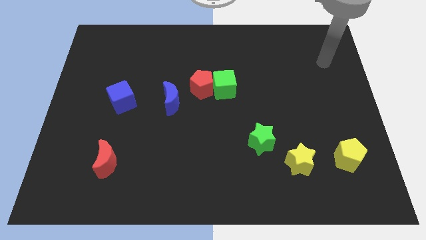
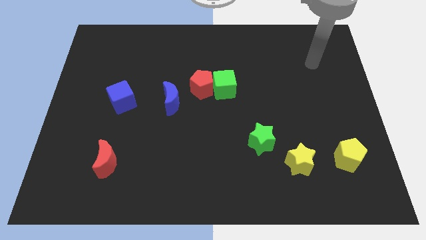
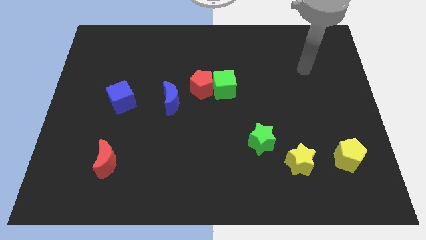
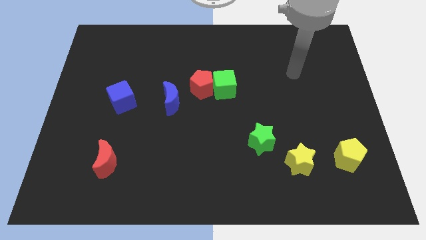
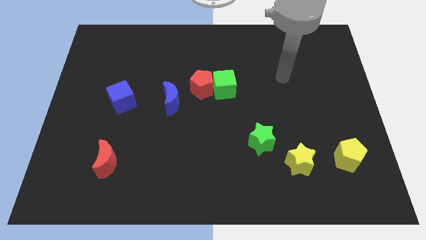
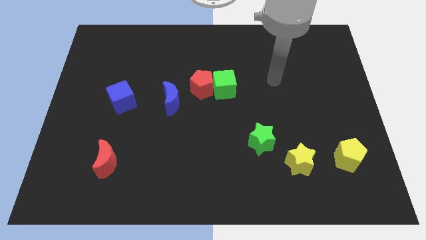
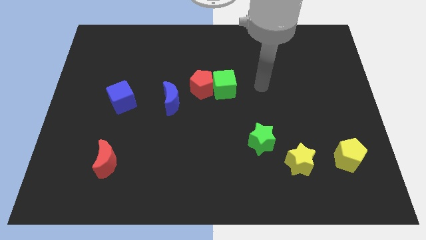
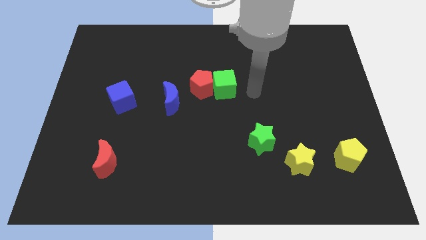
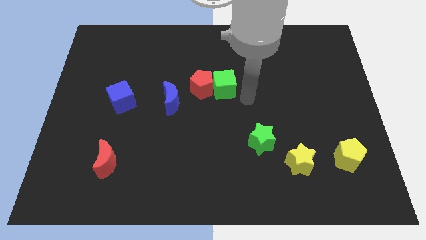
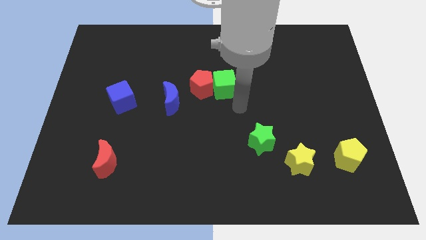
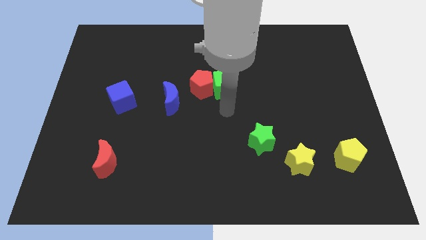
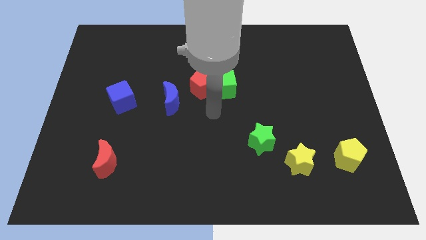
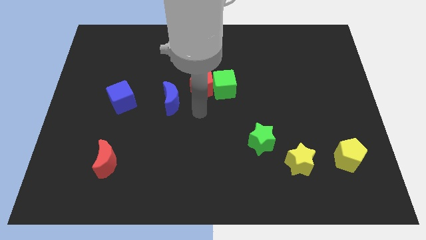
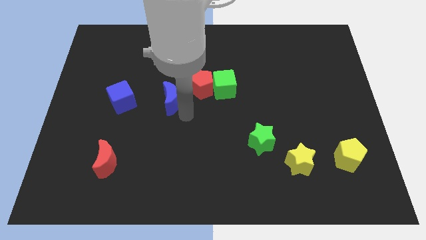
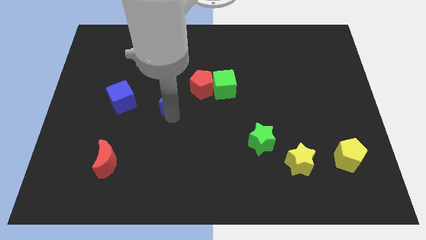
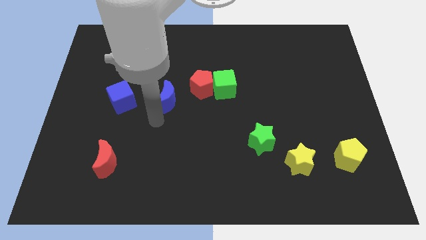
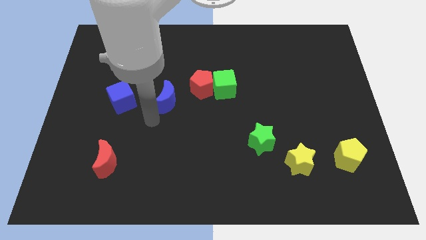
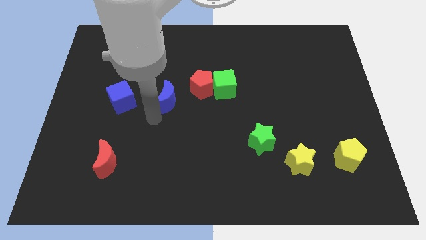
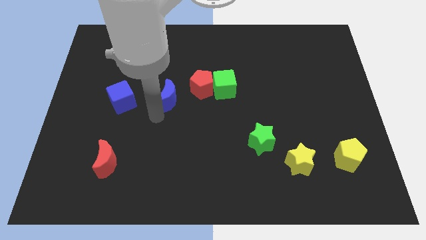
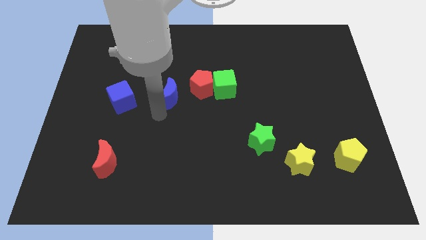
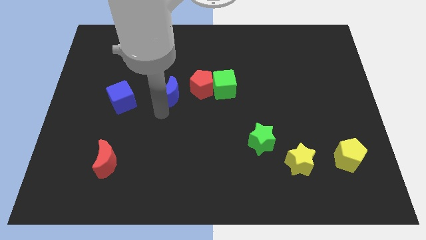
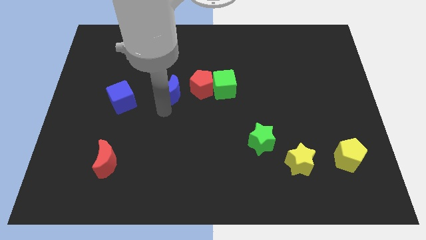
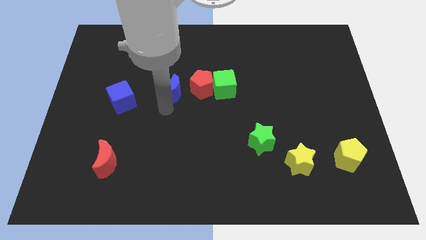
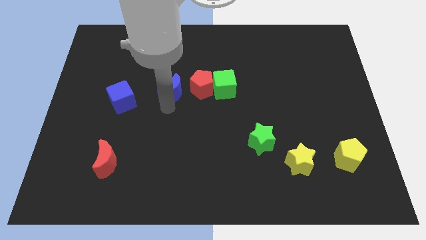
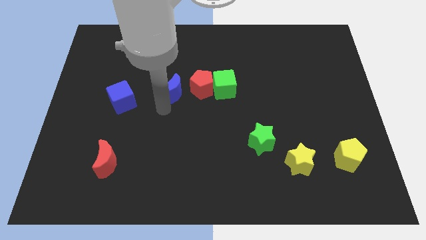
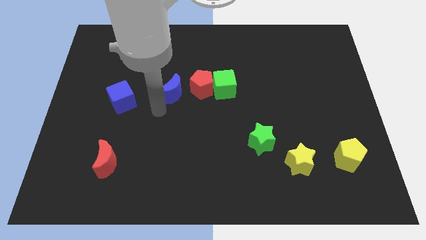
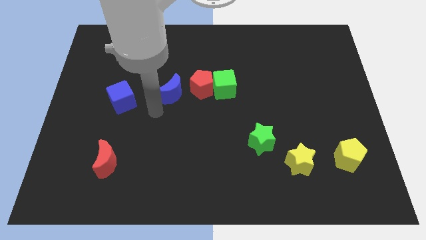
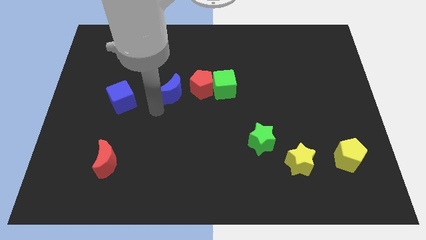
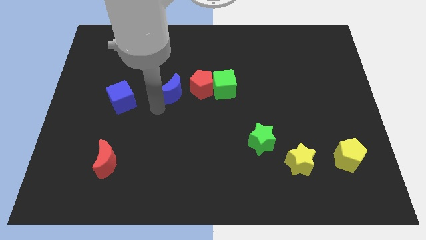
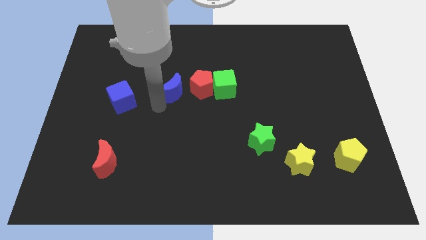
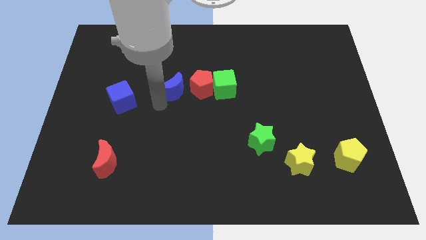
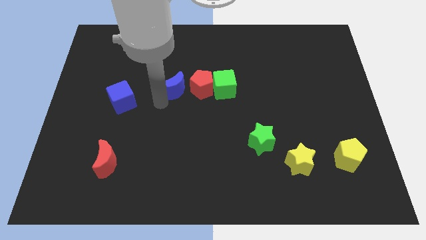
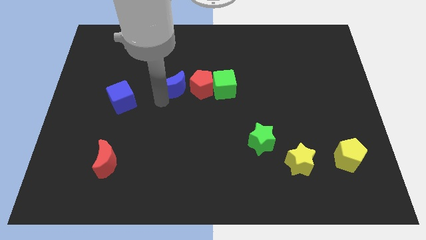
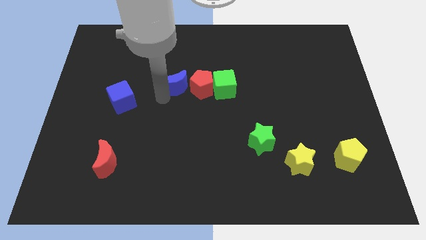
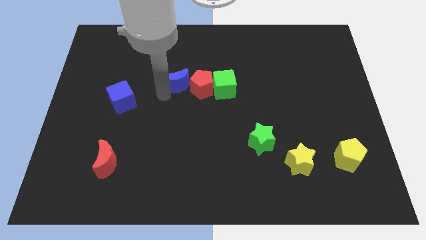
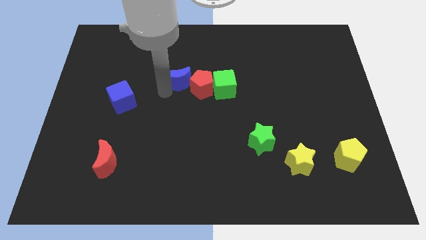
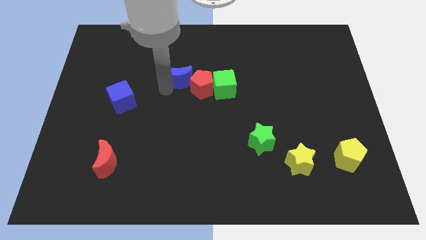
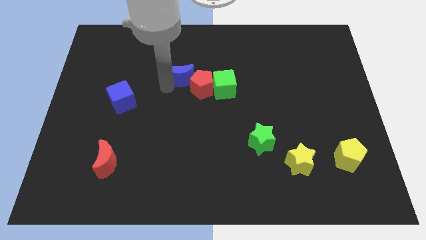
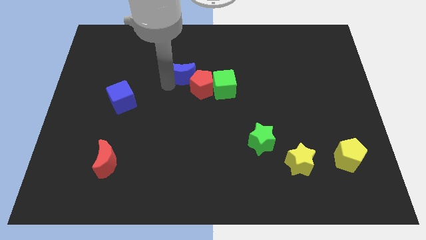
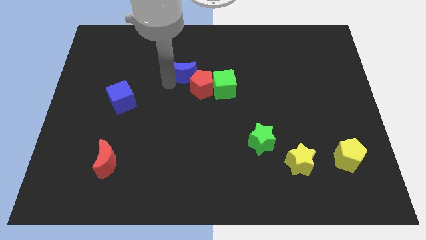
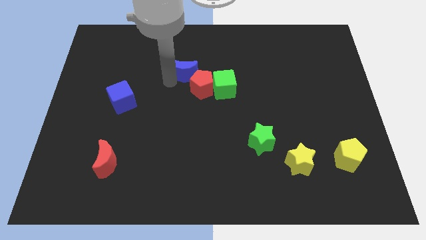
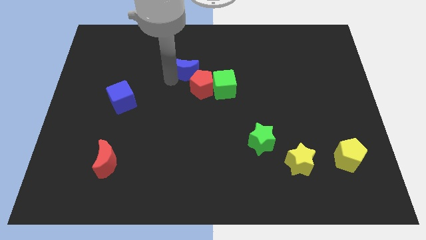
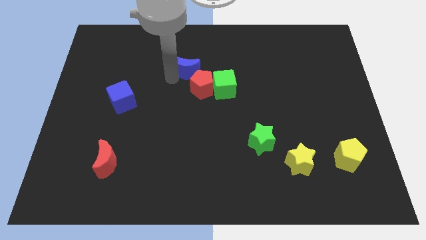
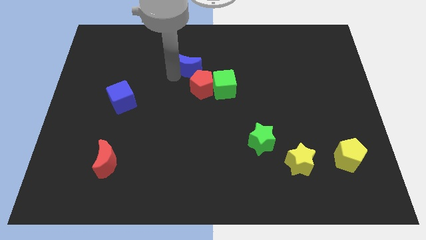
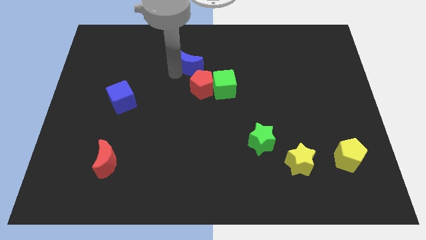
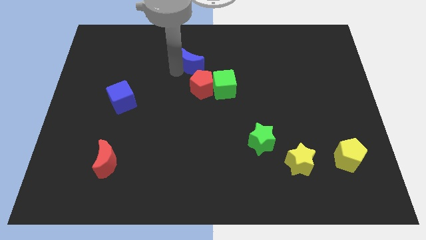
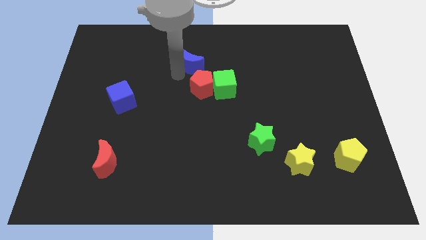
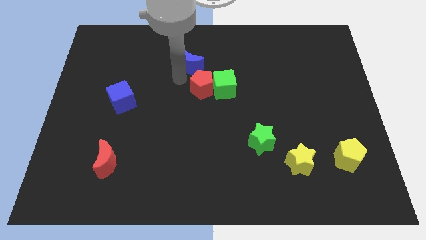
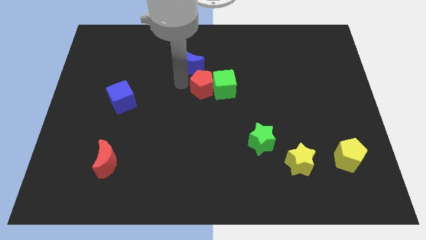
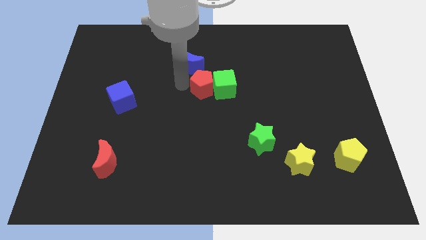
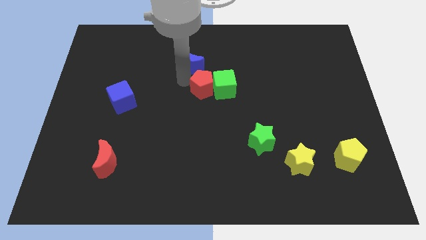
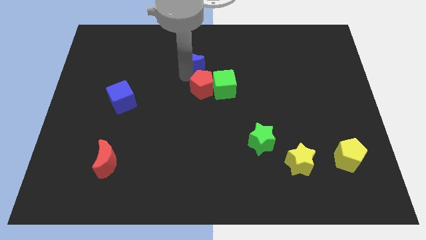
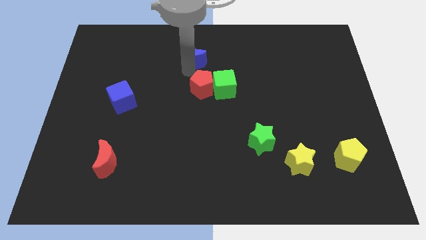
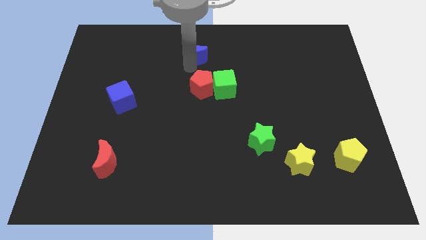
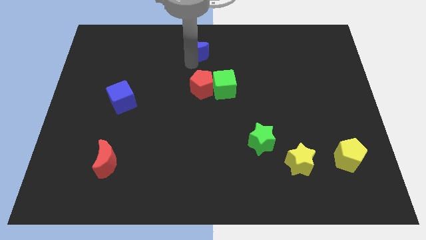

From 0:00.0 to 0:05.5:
move the blue moon to the top

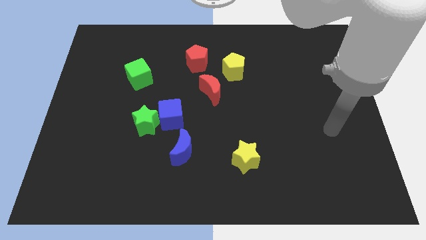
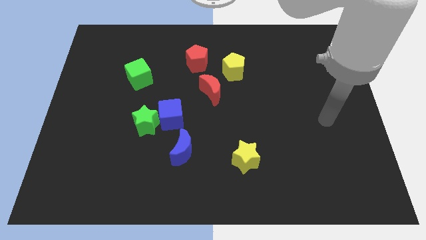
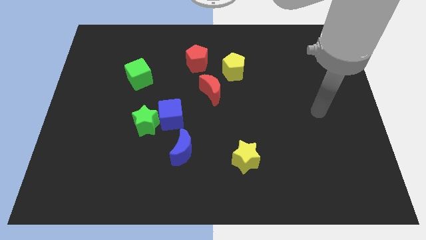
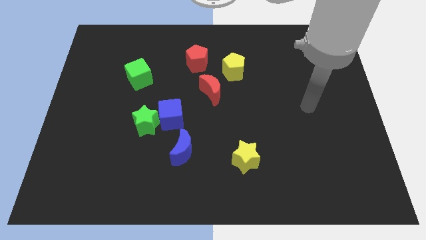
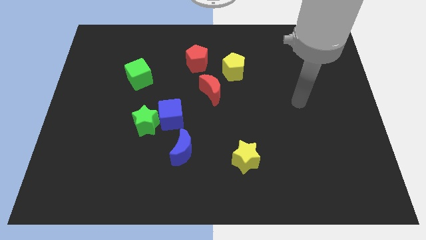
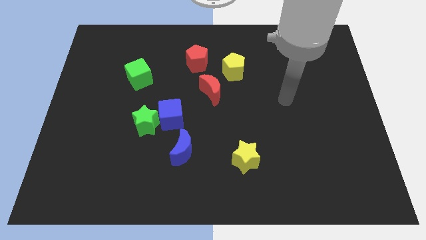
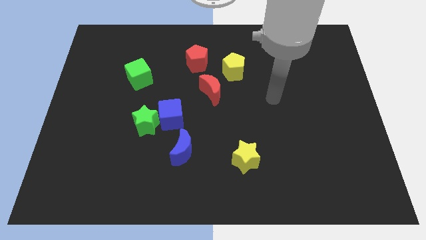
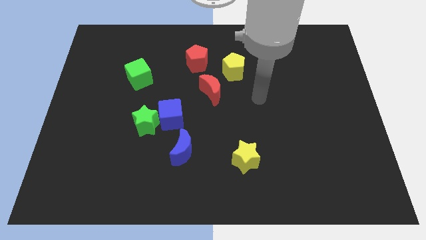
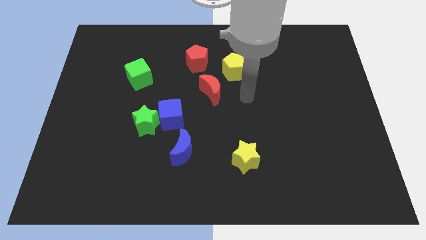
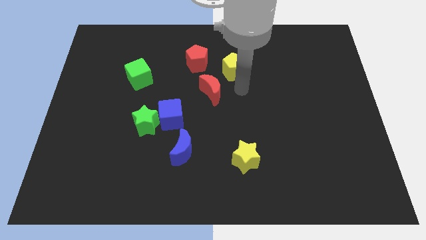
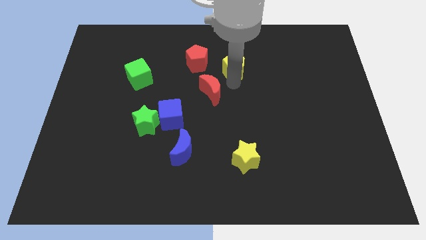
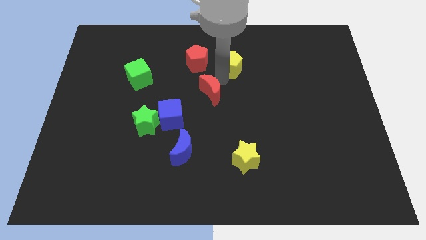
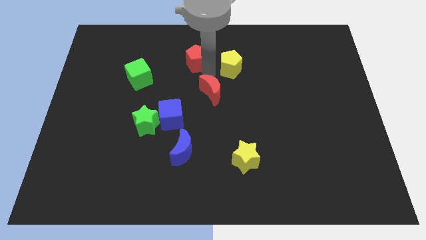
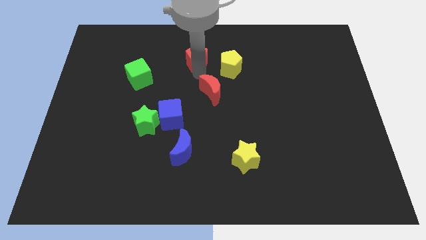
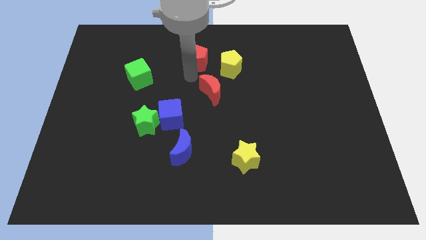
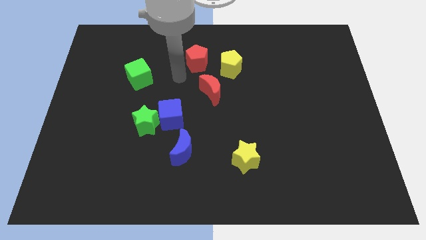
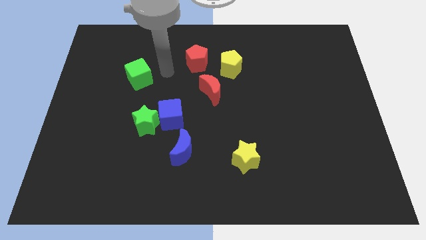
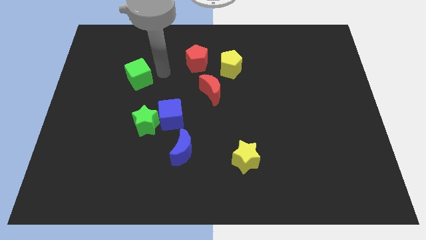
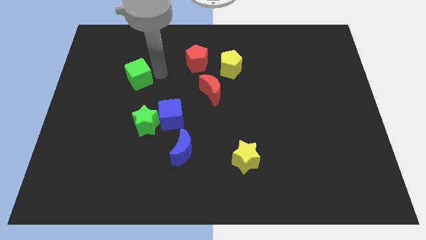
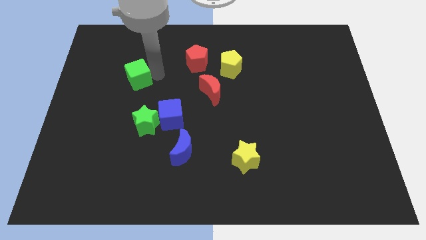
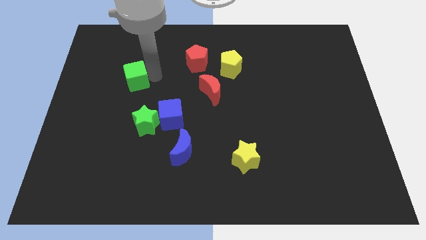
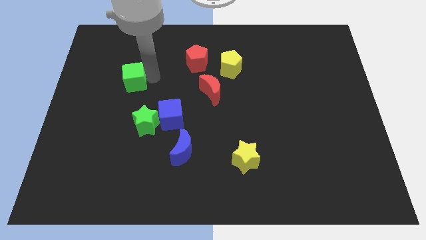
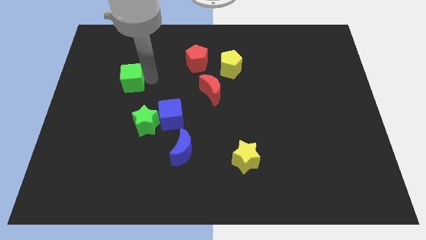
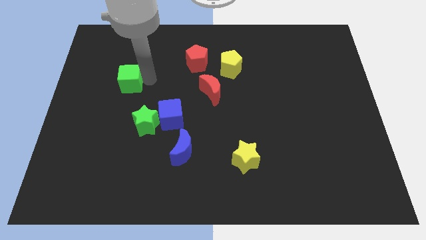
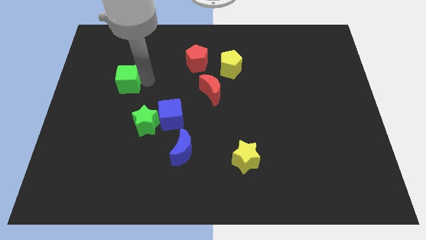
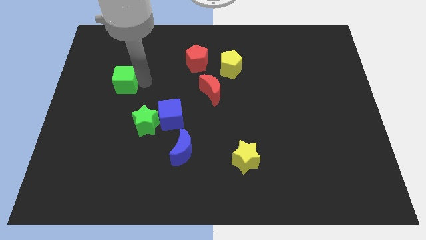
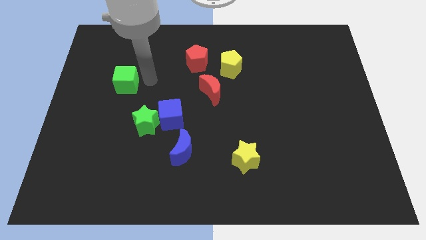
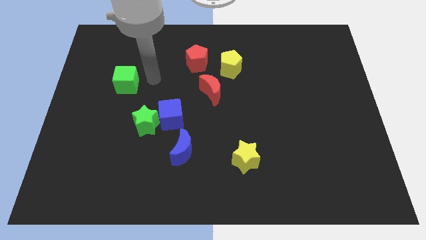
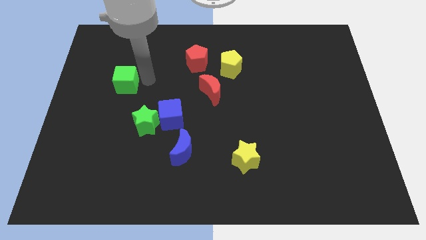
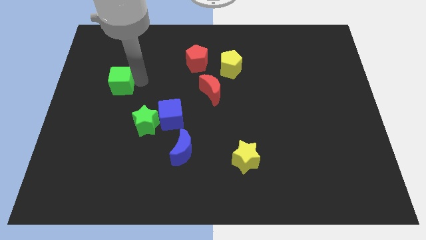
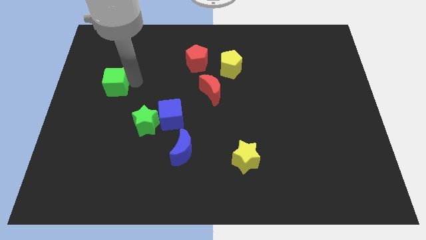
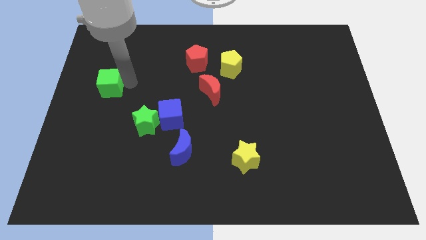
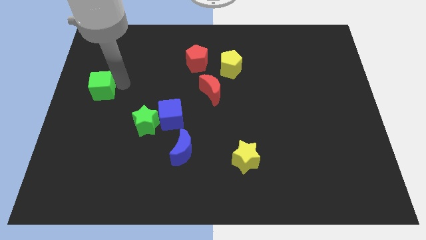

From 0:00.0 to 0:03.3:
put the green cube to the left side
